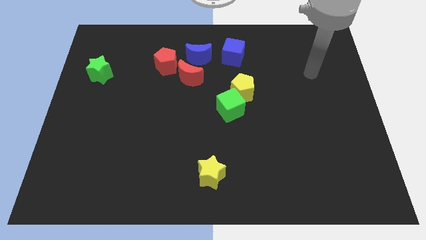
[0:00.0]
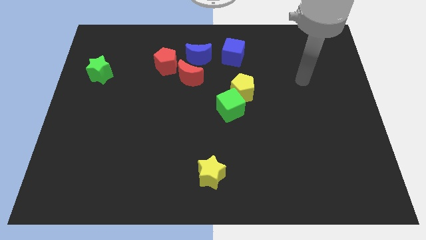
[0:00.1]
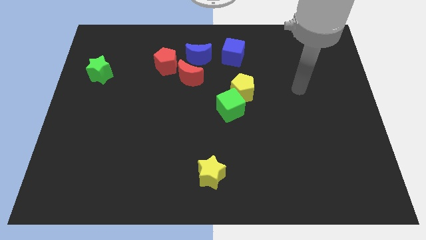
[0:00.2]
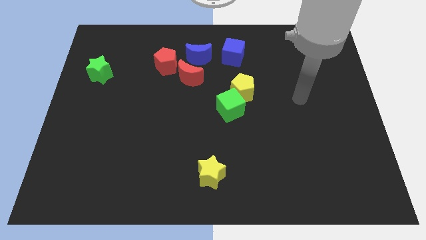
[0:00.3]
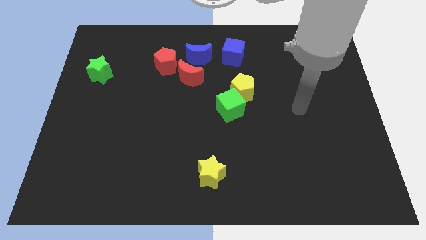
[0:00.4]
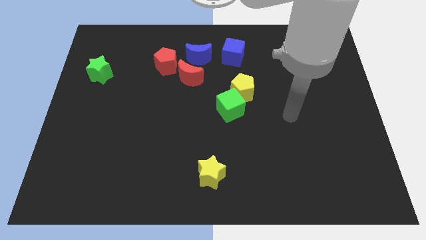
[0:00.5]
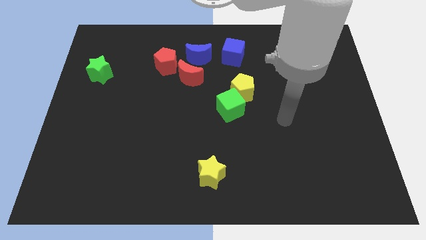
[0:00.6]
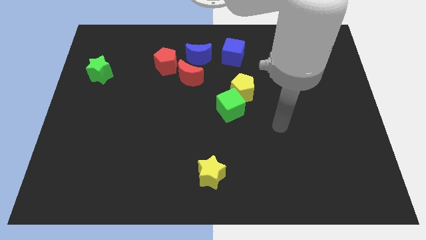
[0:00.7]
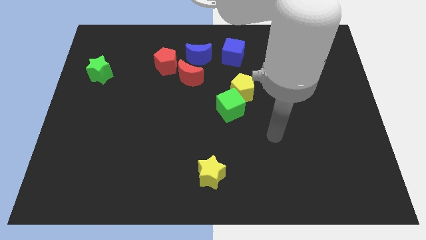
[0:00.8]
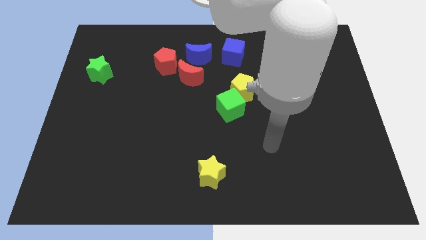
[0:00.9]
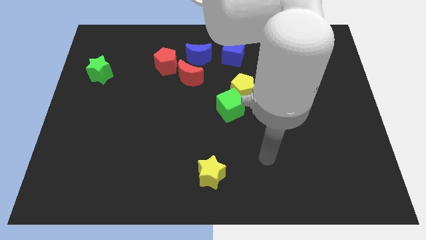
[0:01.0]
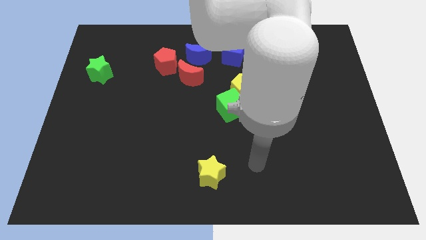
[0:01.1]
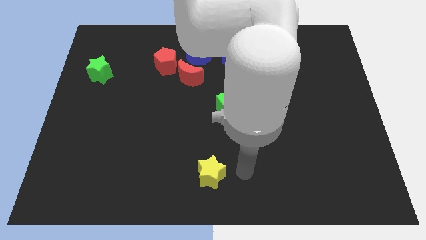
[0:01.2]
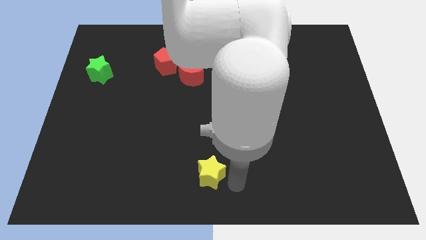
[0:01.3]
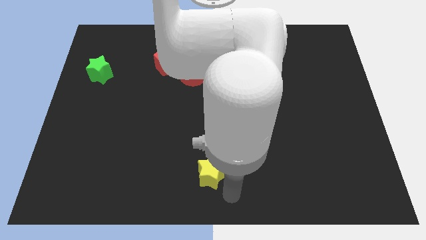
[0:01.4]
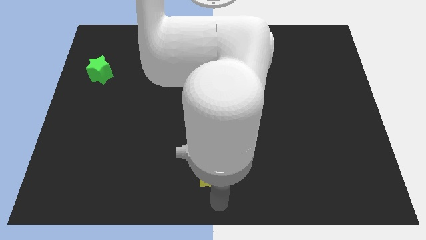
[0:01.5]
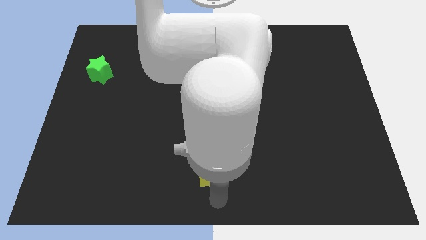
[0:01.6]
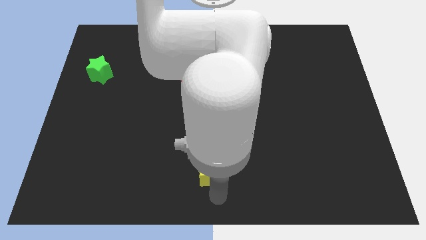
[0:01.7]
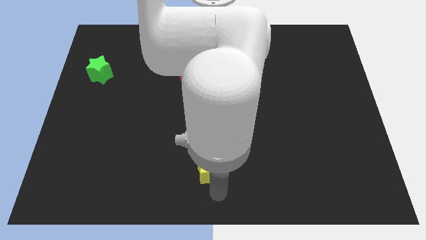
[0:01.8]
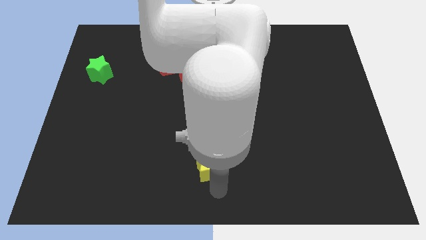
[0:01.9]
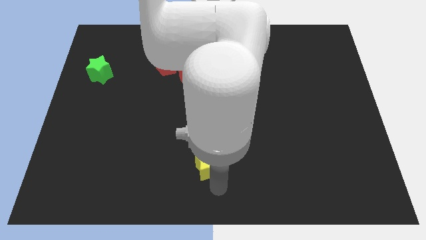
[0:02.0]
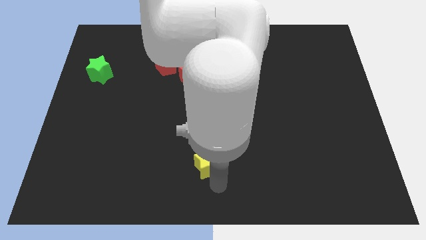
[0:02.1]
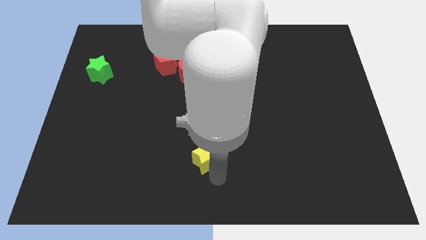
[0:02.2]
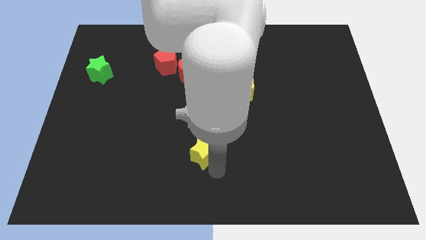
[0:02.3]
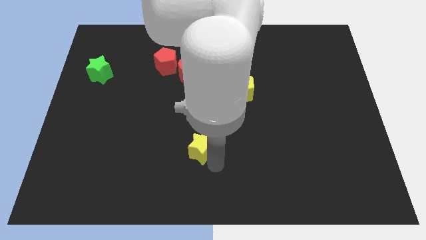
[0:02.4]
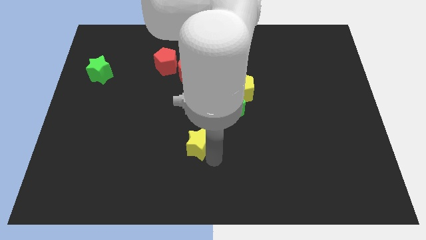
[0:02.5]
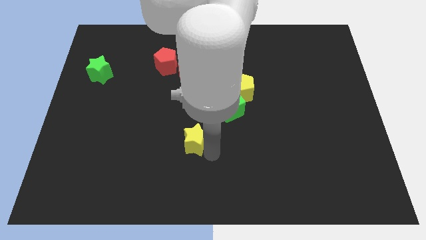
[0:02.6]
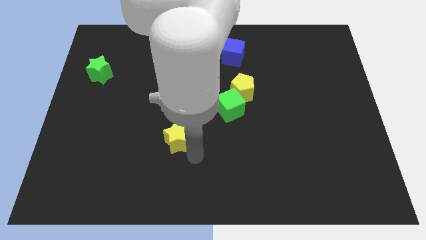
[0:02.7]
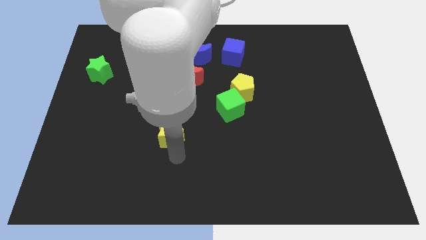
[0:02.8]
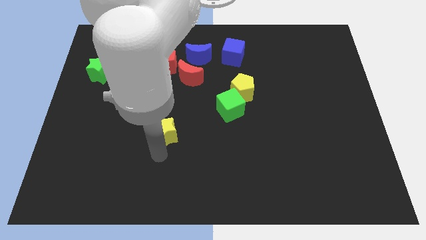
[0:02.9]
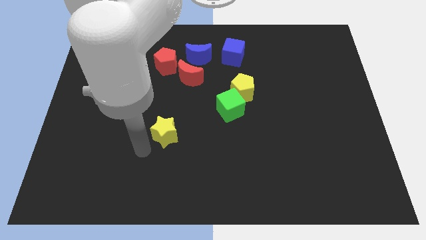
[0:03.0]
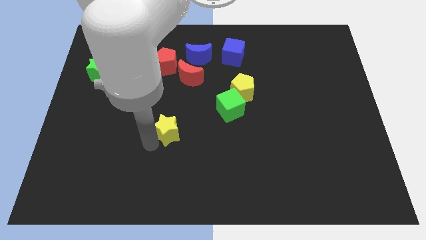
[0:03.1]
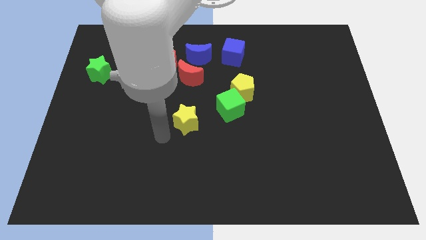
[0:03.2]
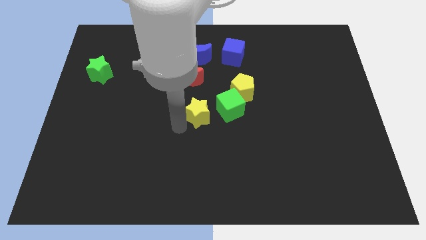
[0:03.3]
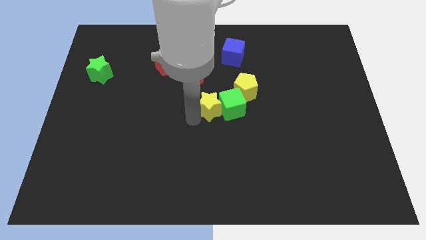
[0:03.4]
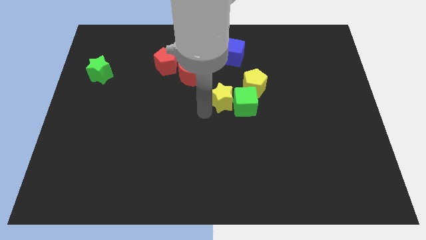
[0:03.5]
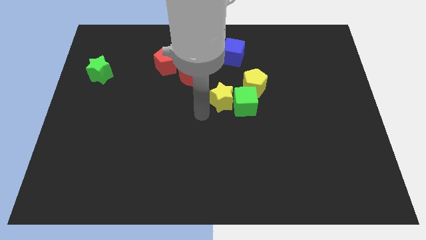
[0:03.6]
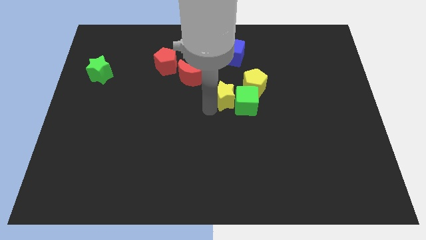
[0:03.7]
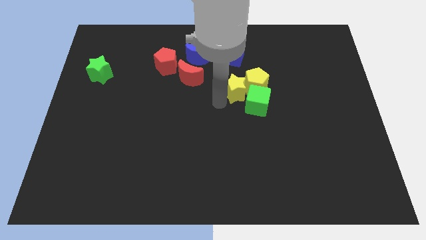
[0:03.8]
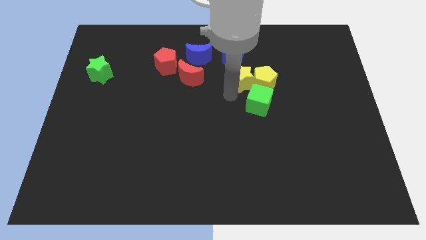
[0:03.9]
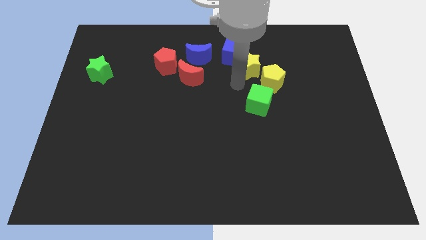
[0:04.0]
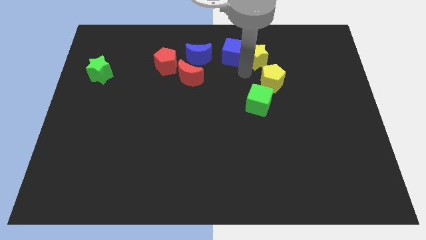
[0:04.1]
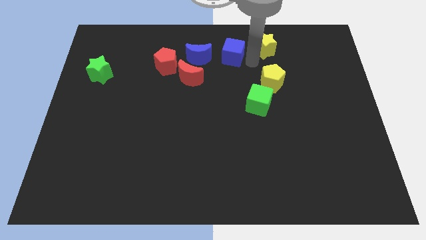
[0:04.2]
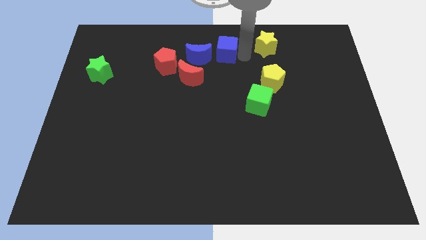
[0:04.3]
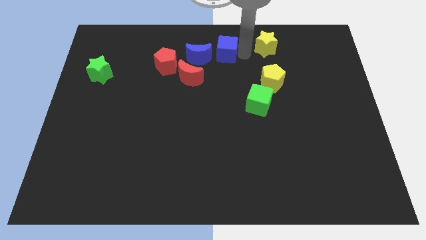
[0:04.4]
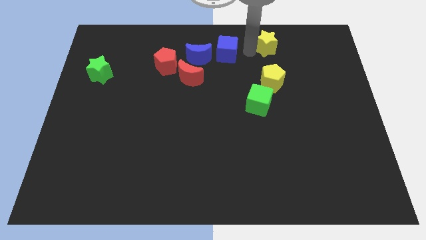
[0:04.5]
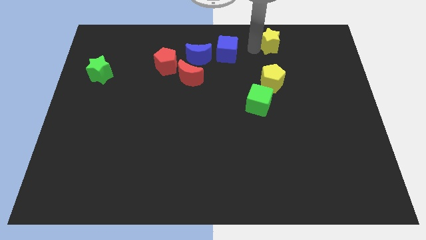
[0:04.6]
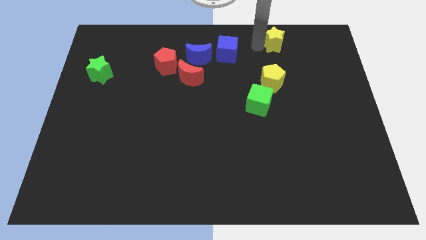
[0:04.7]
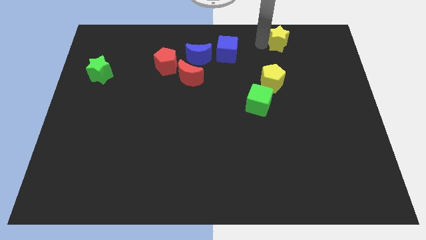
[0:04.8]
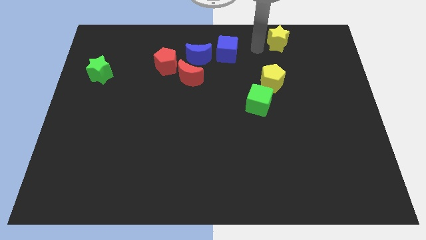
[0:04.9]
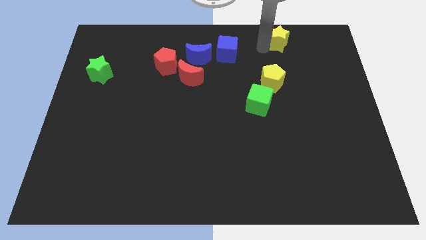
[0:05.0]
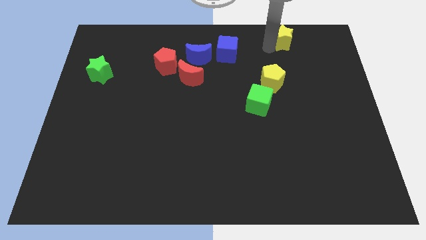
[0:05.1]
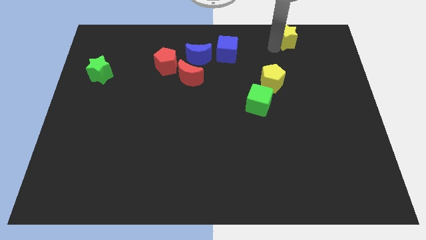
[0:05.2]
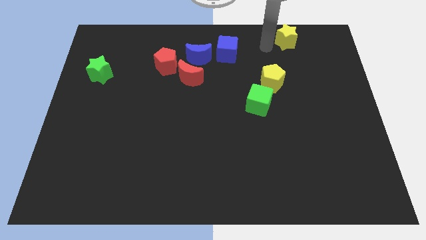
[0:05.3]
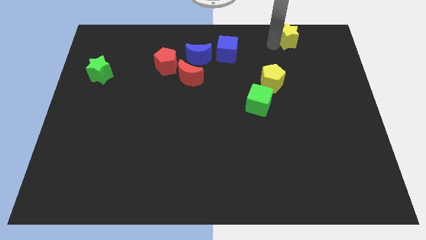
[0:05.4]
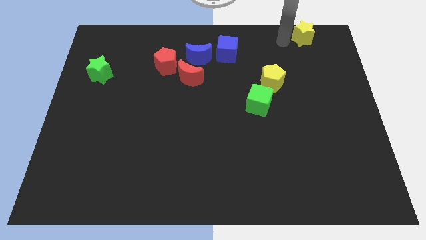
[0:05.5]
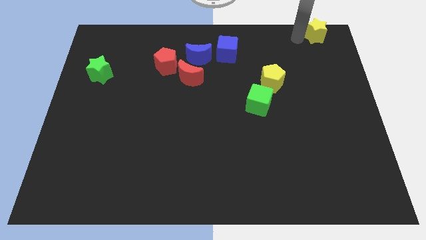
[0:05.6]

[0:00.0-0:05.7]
slide the yellow star to the top right corner

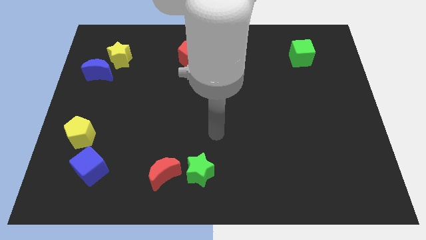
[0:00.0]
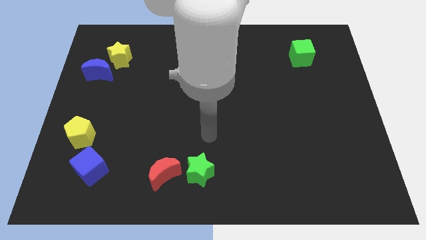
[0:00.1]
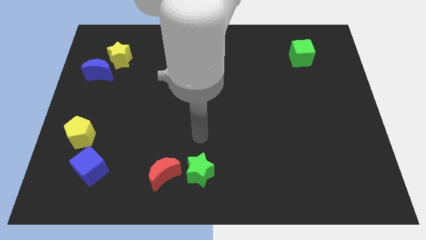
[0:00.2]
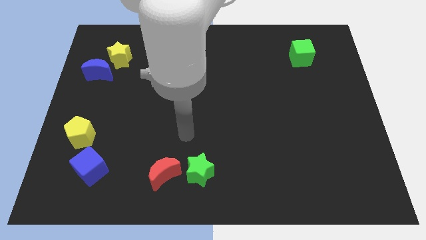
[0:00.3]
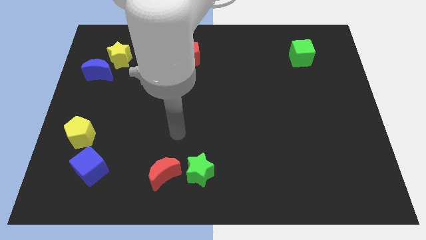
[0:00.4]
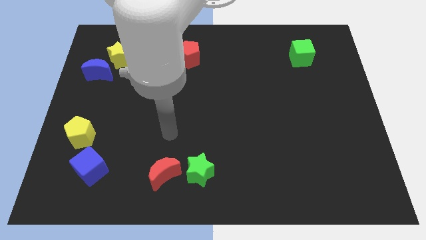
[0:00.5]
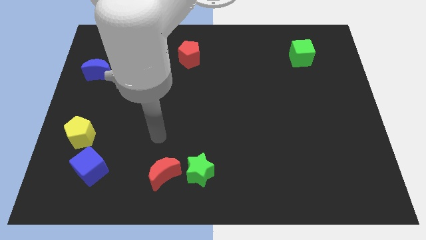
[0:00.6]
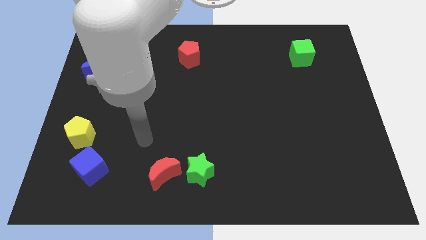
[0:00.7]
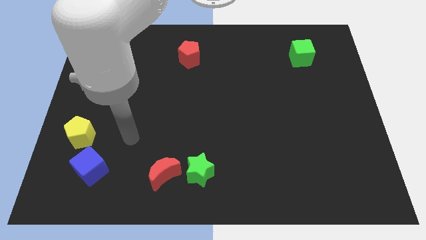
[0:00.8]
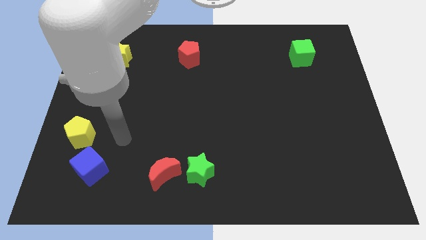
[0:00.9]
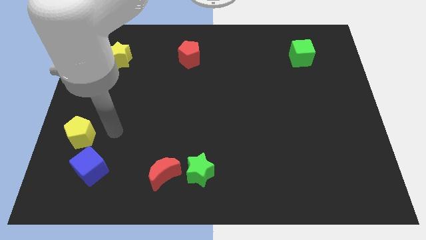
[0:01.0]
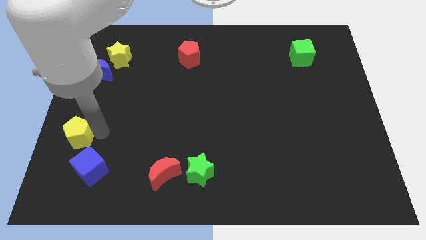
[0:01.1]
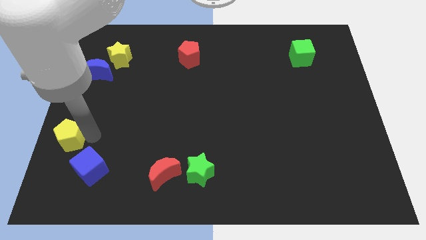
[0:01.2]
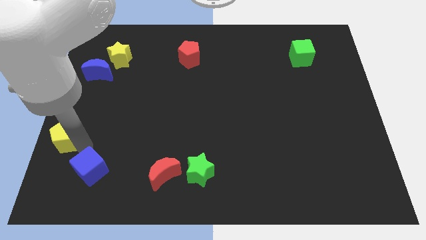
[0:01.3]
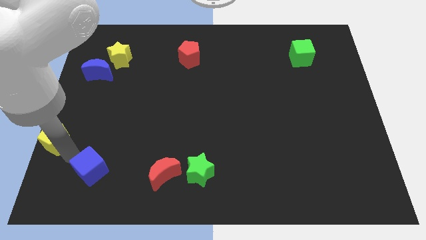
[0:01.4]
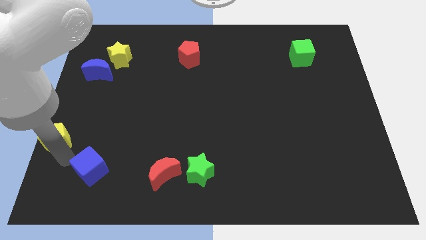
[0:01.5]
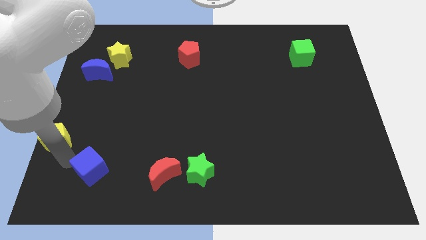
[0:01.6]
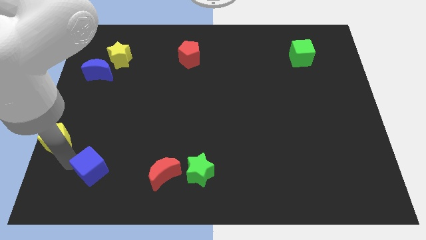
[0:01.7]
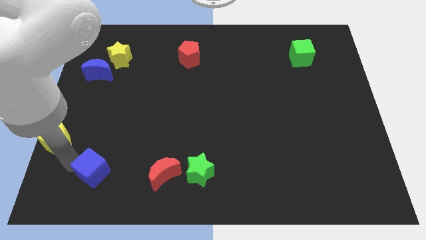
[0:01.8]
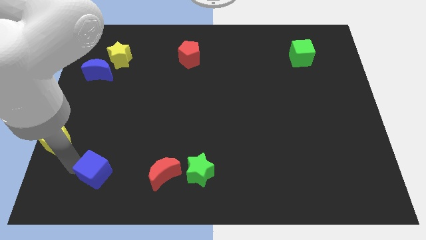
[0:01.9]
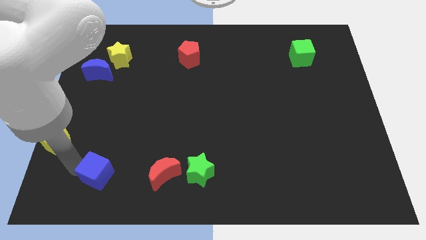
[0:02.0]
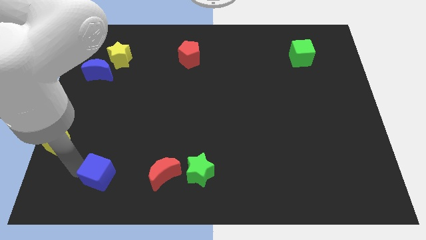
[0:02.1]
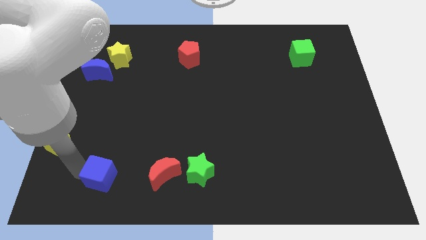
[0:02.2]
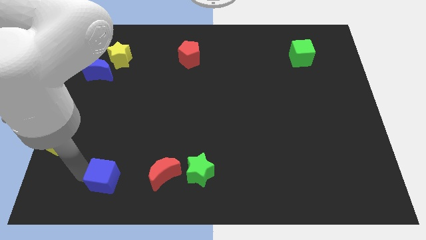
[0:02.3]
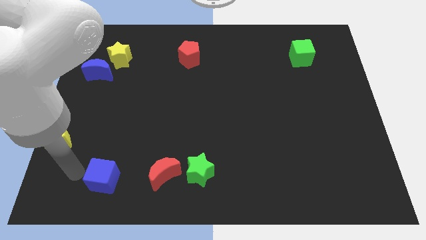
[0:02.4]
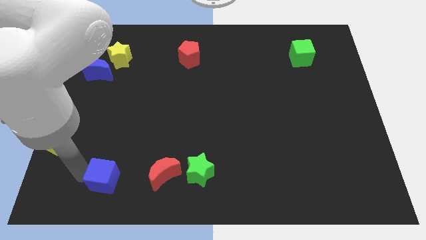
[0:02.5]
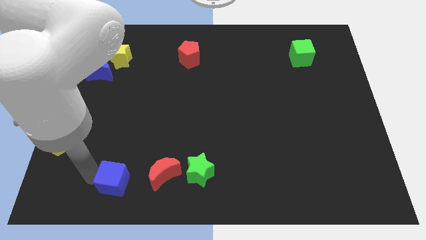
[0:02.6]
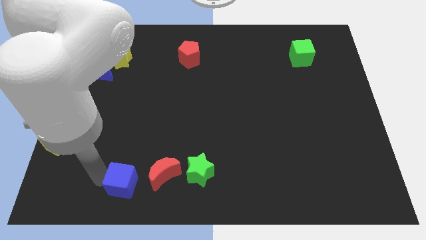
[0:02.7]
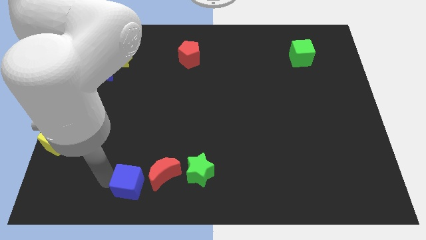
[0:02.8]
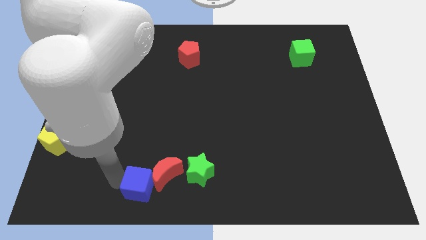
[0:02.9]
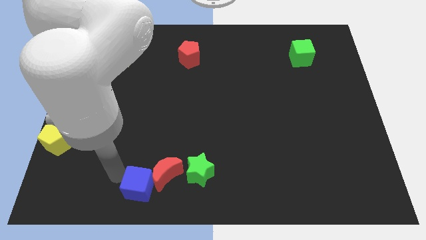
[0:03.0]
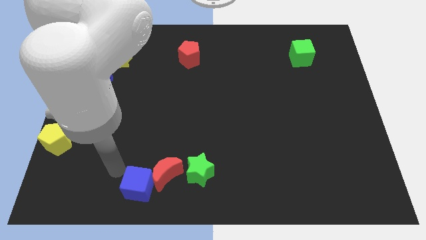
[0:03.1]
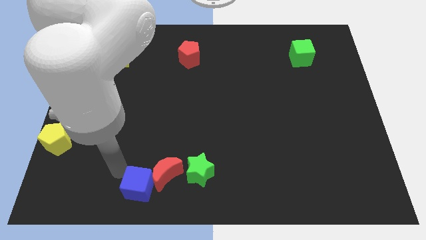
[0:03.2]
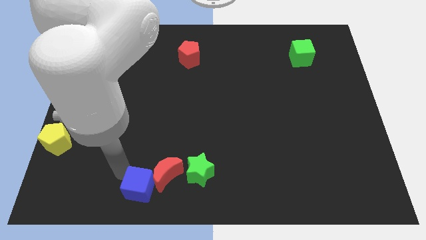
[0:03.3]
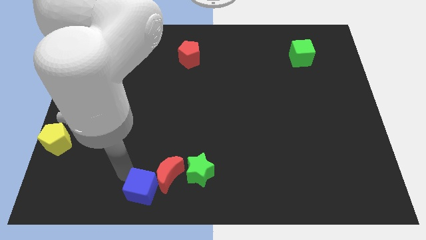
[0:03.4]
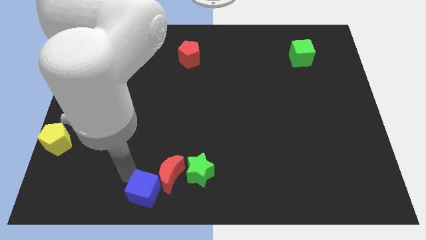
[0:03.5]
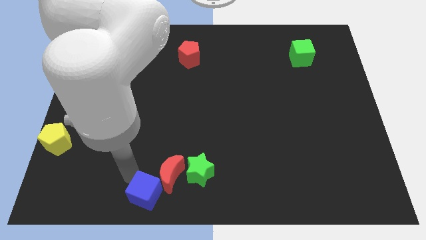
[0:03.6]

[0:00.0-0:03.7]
put the blue cube to the bottom side
